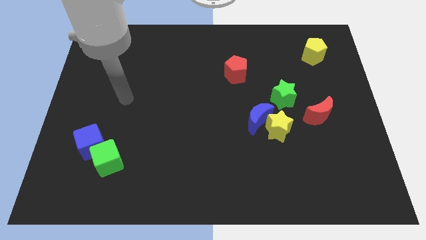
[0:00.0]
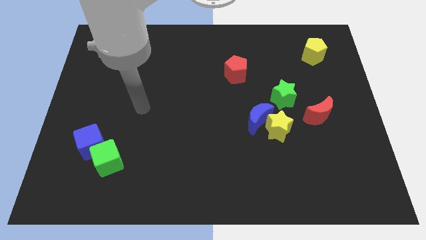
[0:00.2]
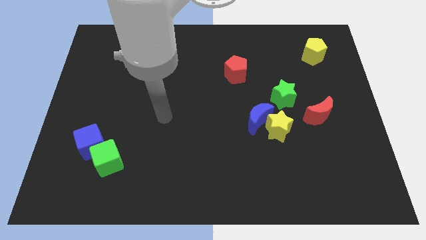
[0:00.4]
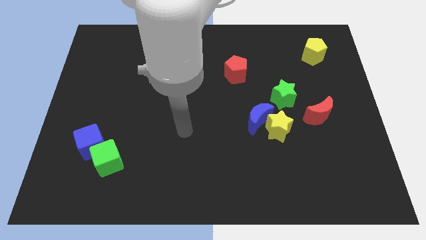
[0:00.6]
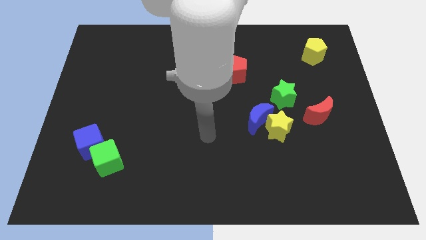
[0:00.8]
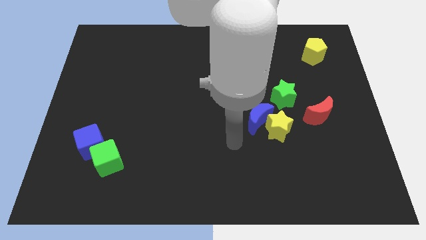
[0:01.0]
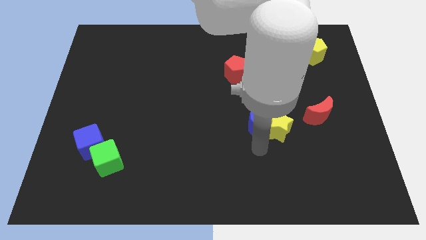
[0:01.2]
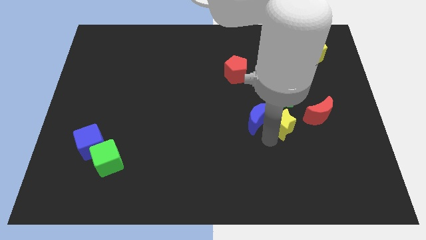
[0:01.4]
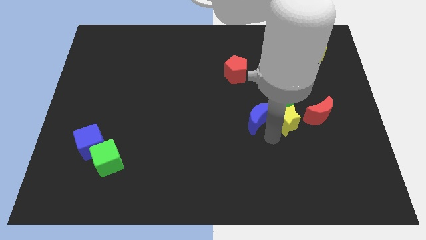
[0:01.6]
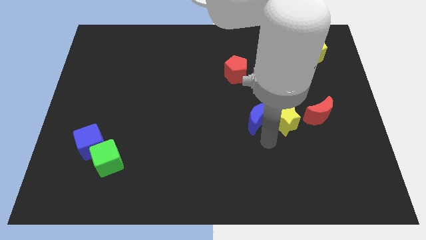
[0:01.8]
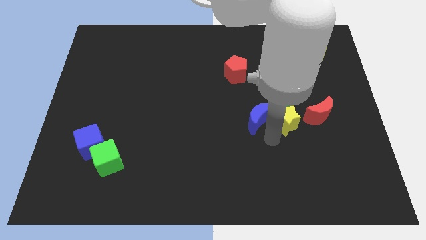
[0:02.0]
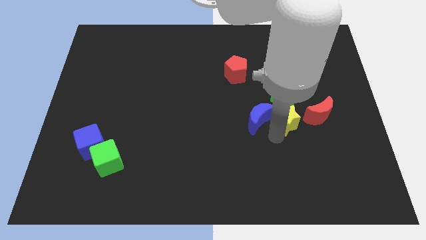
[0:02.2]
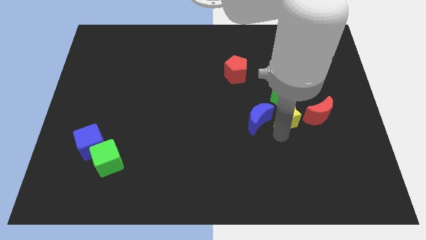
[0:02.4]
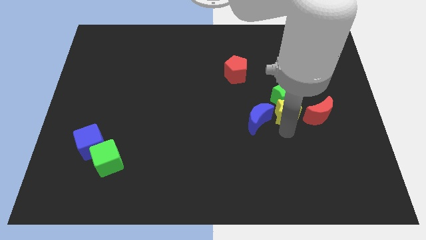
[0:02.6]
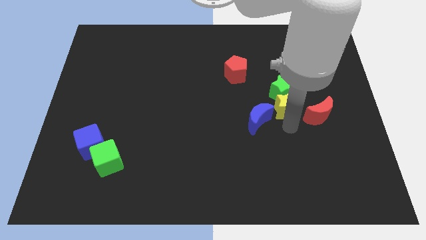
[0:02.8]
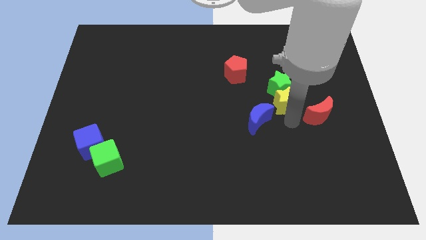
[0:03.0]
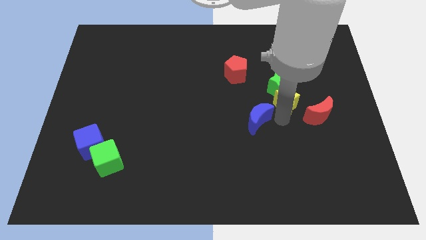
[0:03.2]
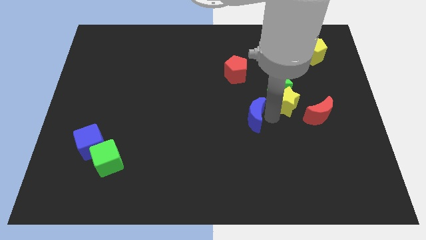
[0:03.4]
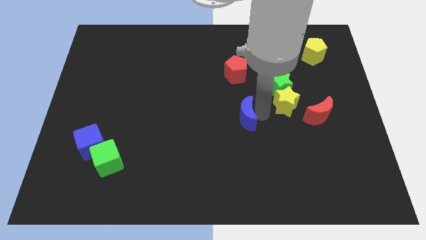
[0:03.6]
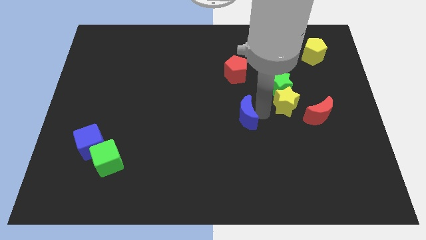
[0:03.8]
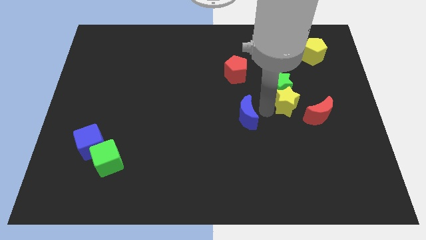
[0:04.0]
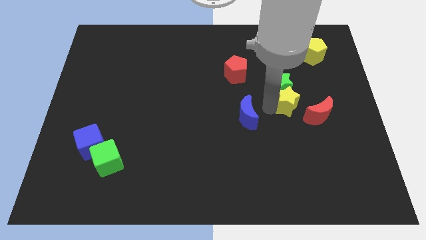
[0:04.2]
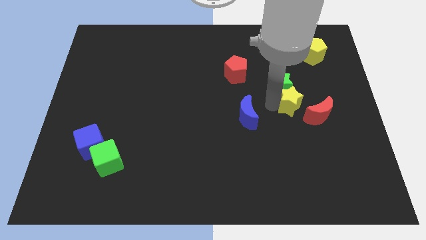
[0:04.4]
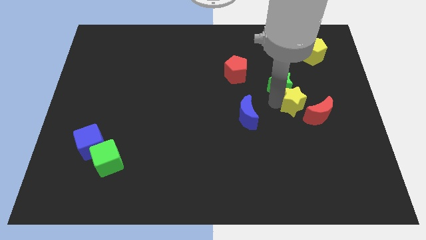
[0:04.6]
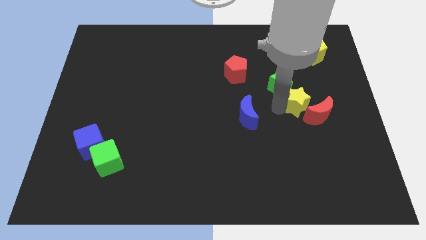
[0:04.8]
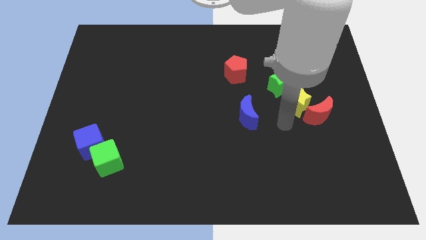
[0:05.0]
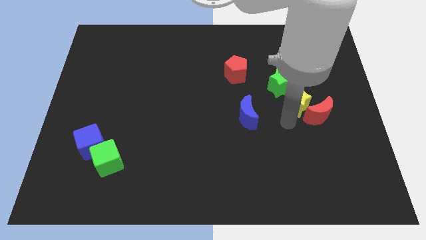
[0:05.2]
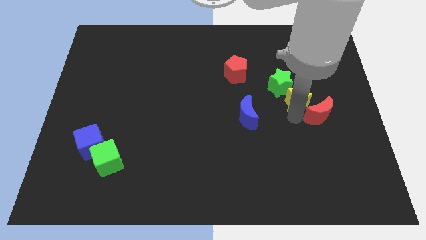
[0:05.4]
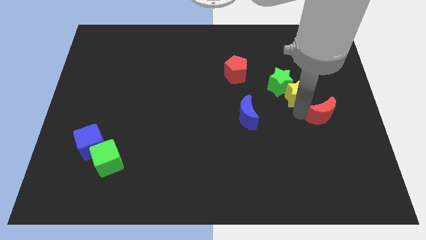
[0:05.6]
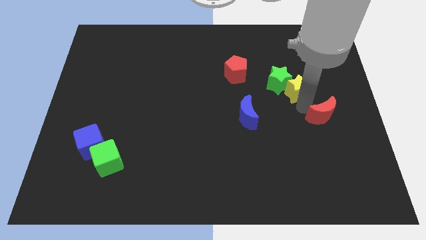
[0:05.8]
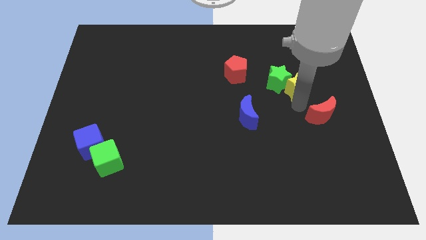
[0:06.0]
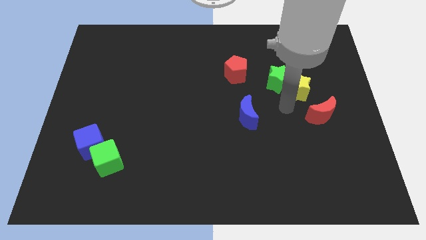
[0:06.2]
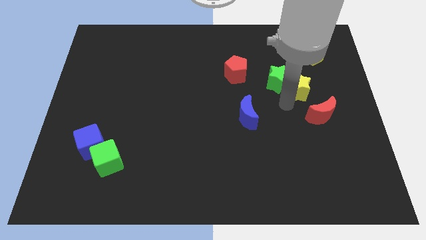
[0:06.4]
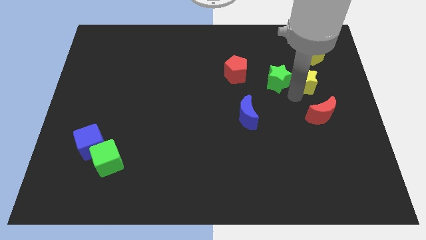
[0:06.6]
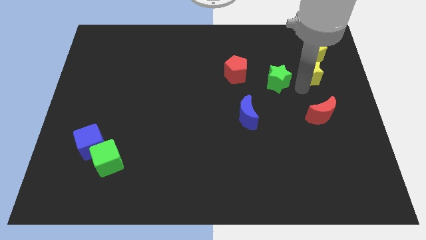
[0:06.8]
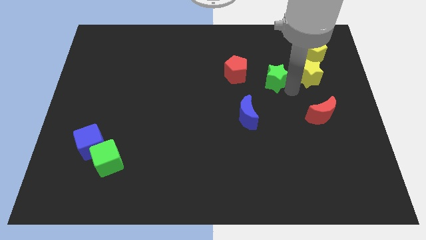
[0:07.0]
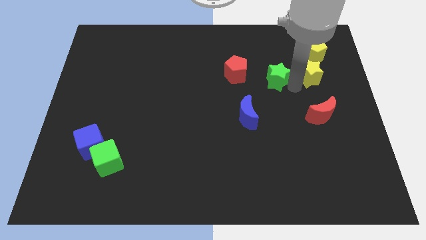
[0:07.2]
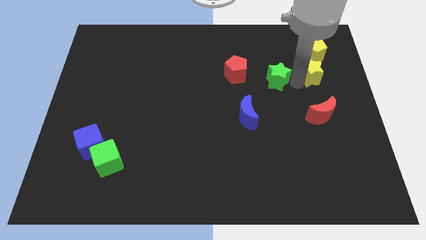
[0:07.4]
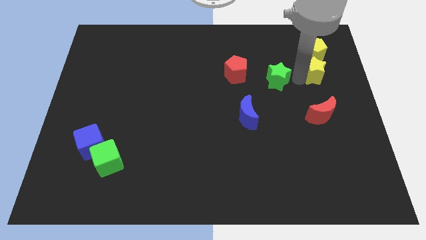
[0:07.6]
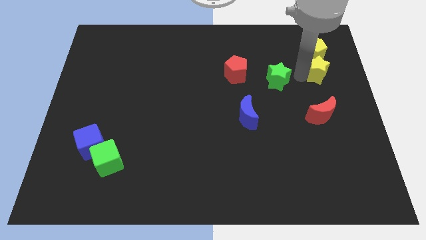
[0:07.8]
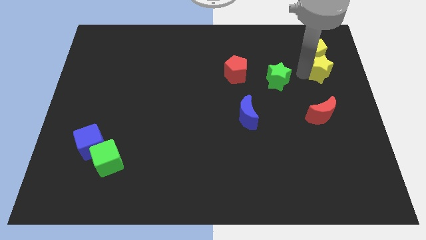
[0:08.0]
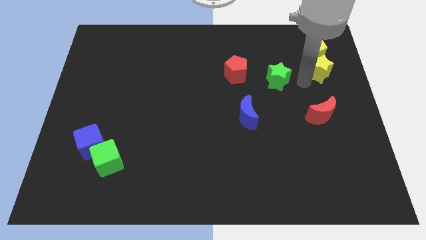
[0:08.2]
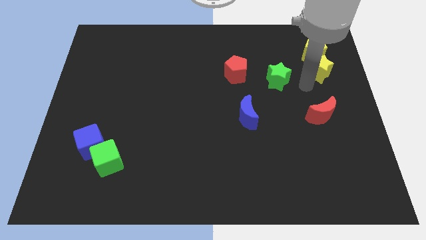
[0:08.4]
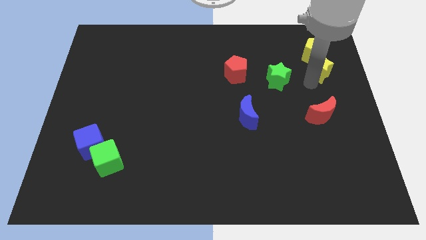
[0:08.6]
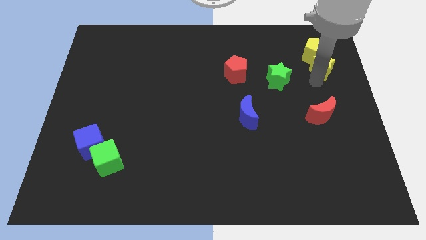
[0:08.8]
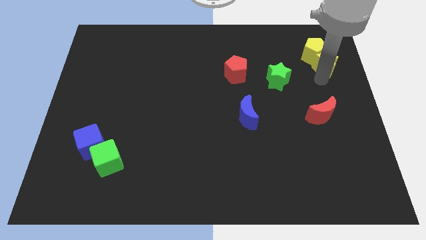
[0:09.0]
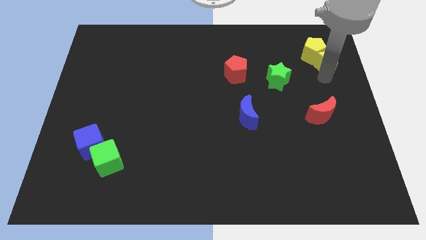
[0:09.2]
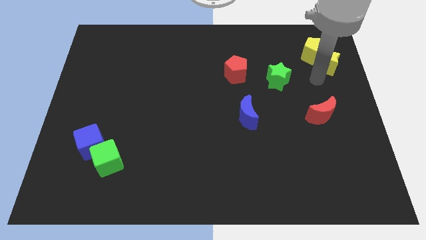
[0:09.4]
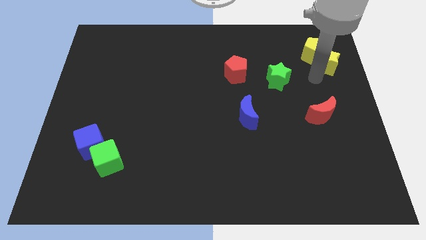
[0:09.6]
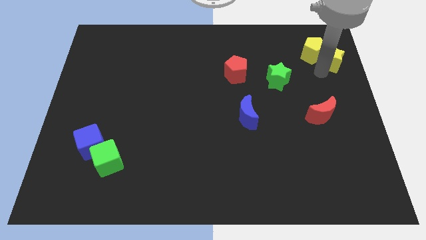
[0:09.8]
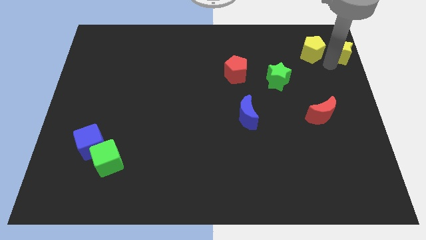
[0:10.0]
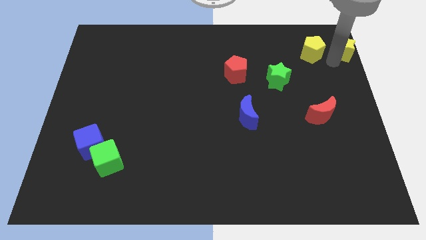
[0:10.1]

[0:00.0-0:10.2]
move the yellow star to the top right of the board

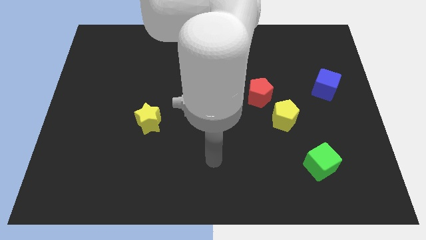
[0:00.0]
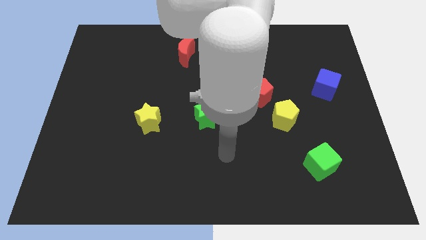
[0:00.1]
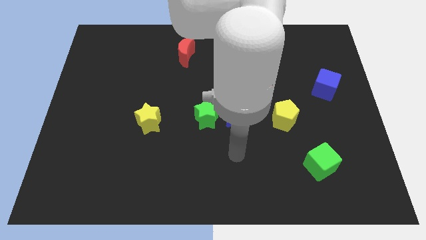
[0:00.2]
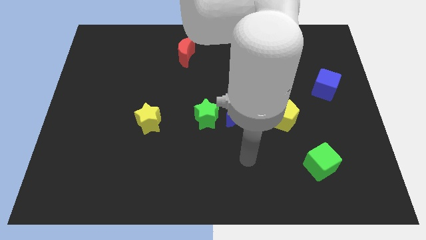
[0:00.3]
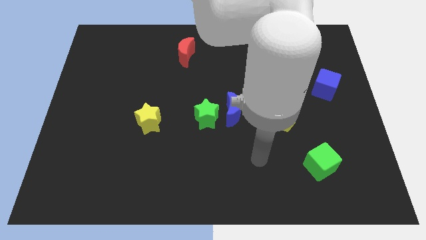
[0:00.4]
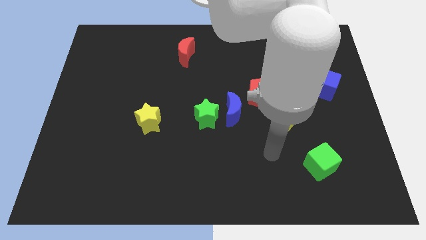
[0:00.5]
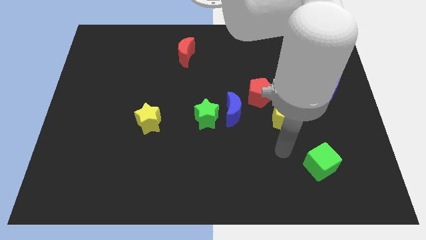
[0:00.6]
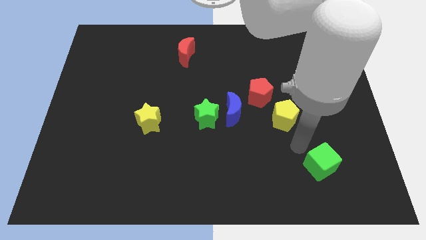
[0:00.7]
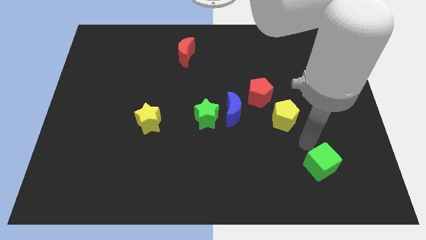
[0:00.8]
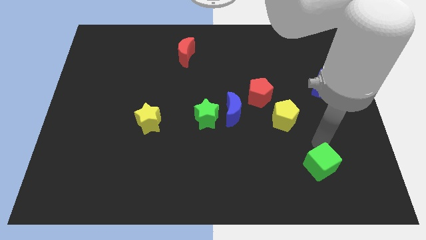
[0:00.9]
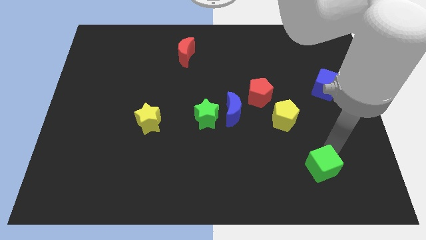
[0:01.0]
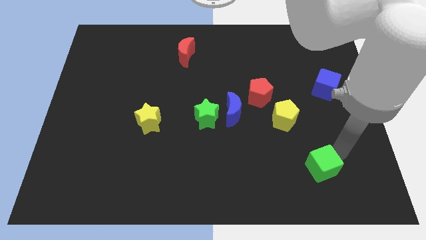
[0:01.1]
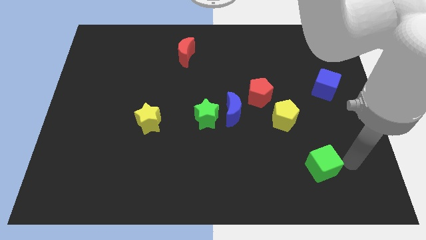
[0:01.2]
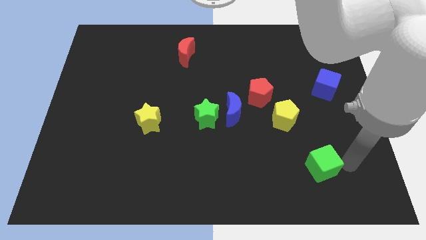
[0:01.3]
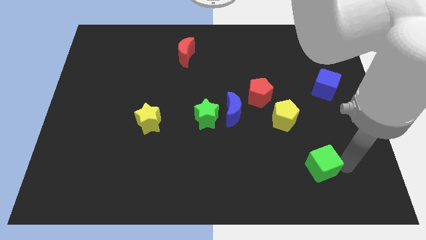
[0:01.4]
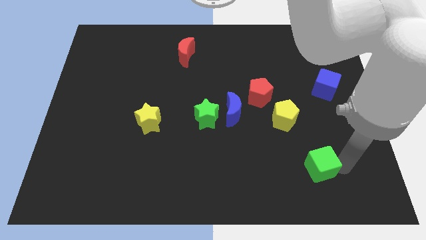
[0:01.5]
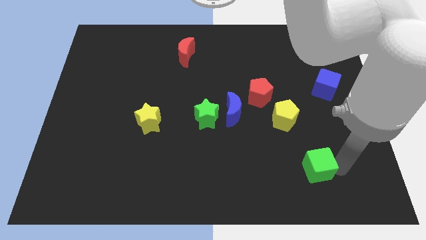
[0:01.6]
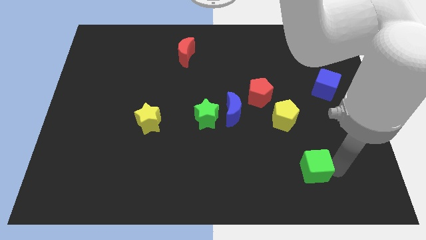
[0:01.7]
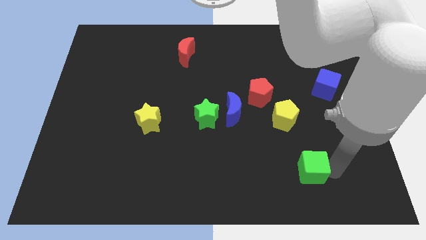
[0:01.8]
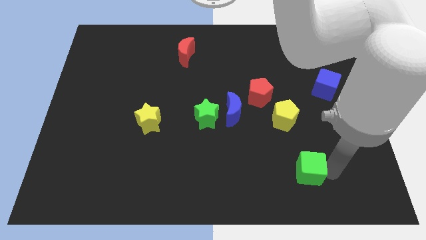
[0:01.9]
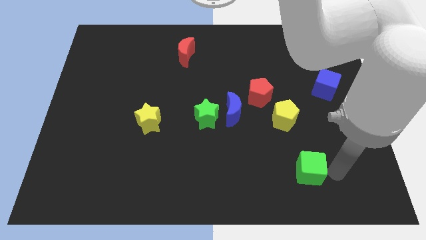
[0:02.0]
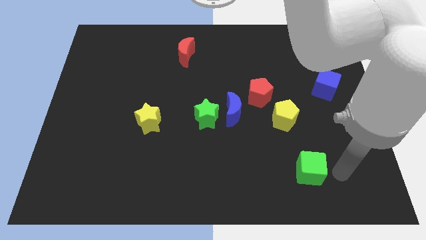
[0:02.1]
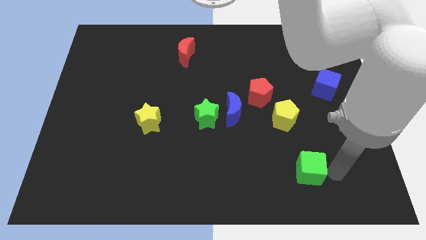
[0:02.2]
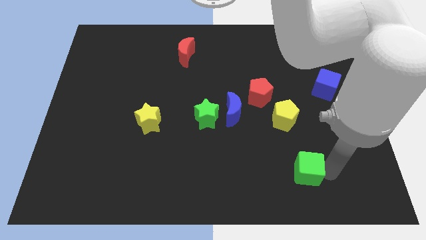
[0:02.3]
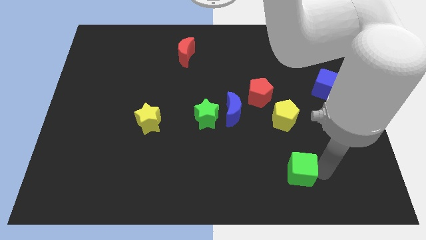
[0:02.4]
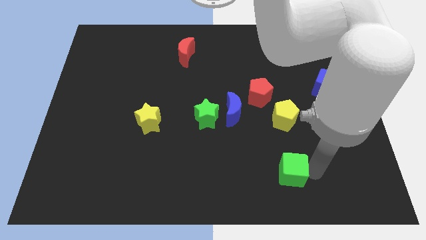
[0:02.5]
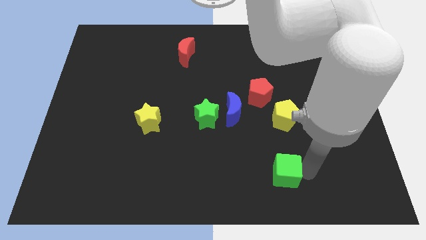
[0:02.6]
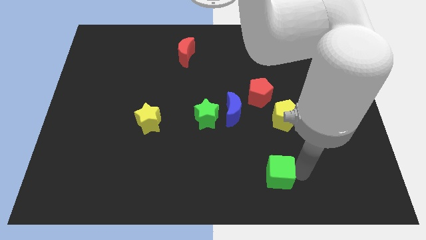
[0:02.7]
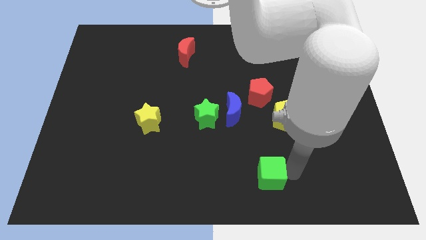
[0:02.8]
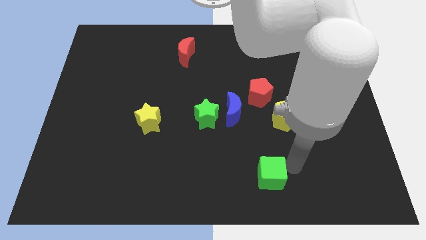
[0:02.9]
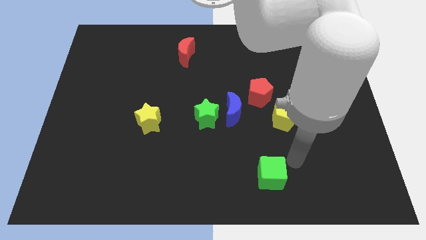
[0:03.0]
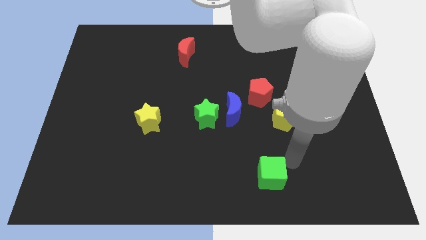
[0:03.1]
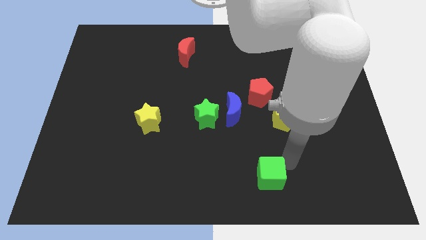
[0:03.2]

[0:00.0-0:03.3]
slide the green cube to the bottom
